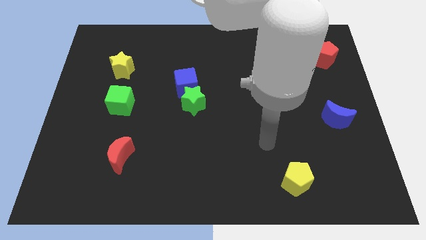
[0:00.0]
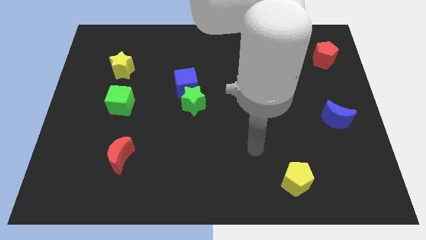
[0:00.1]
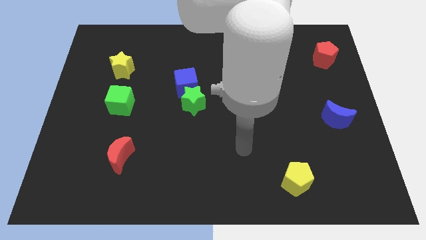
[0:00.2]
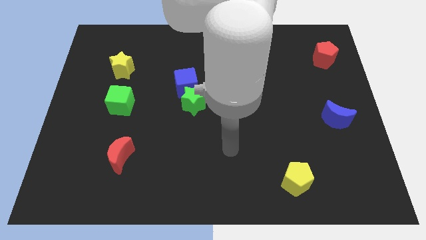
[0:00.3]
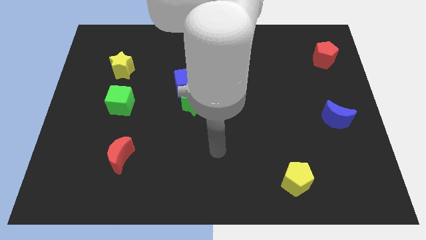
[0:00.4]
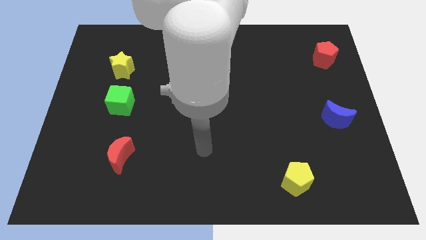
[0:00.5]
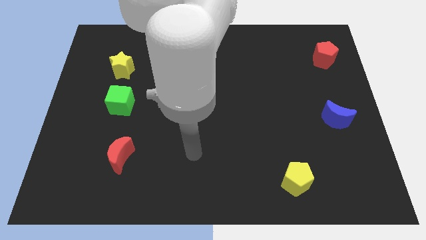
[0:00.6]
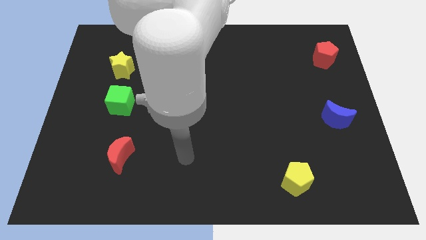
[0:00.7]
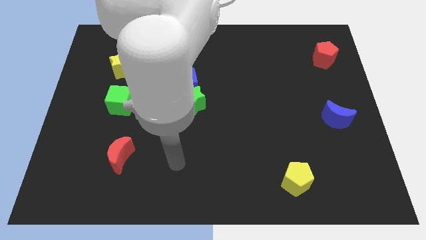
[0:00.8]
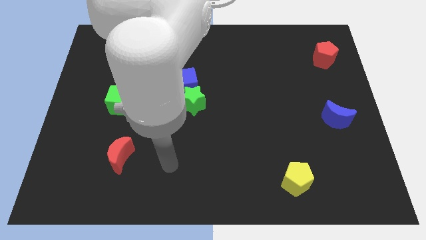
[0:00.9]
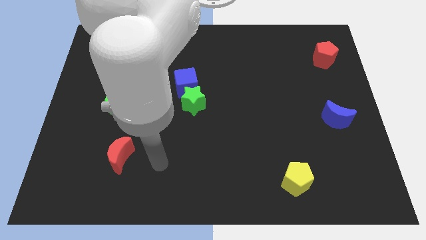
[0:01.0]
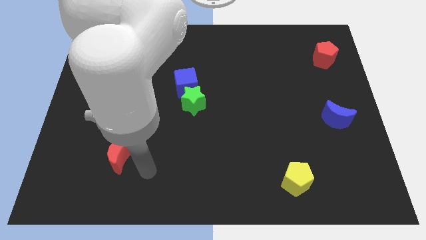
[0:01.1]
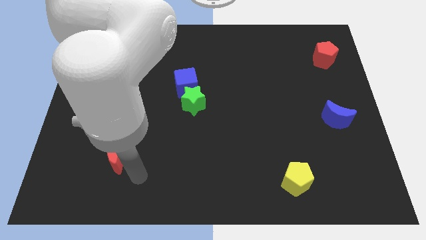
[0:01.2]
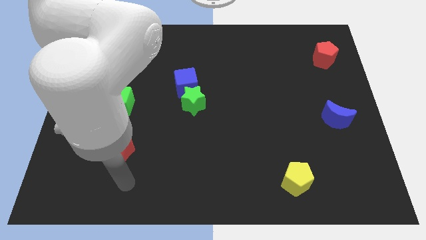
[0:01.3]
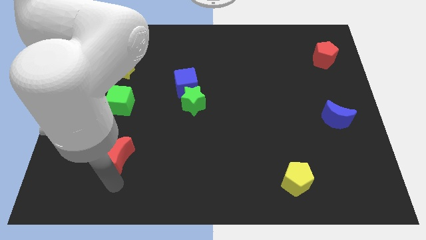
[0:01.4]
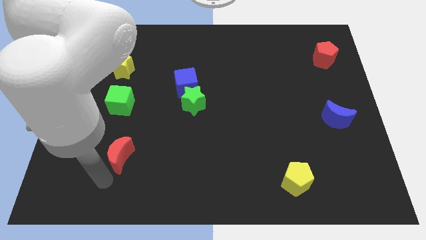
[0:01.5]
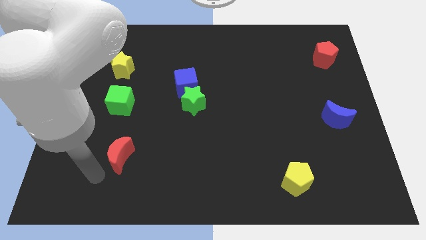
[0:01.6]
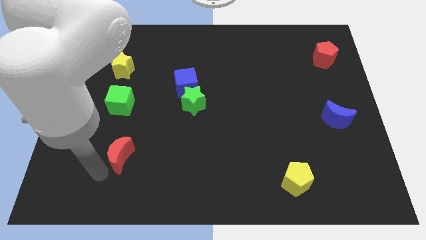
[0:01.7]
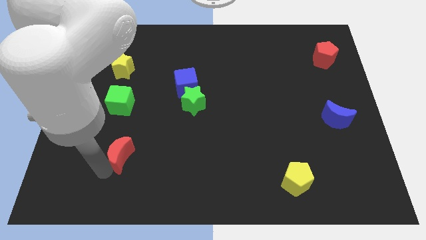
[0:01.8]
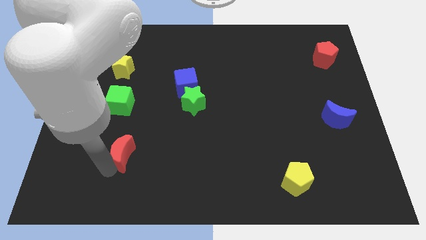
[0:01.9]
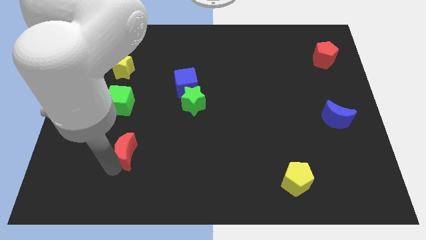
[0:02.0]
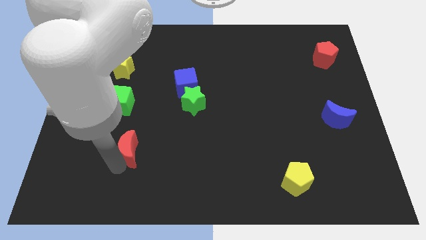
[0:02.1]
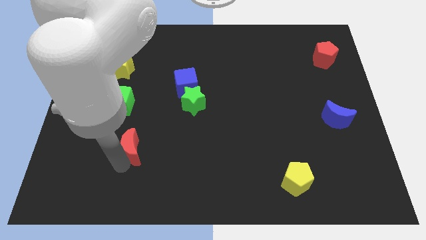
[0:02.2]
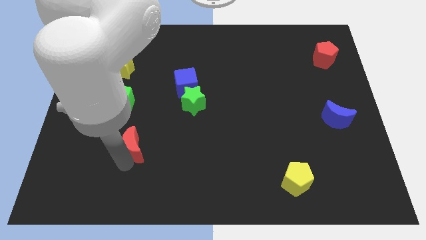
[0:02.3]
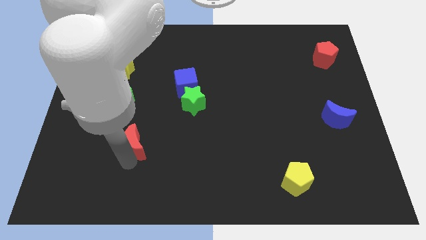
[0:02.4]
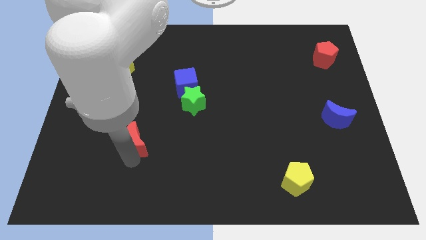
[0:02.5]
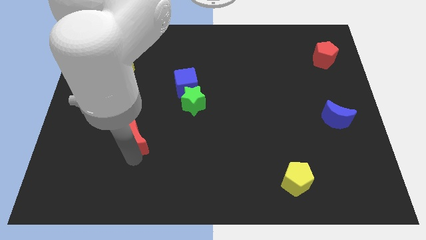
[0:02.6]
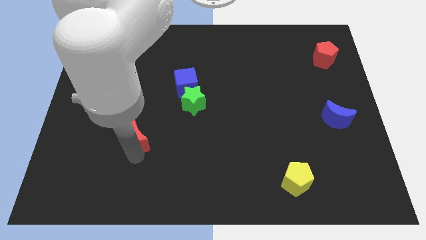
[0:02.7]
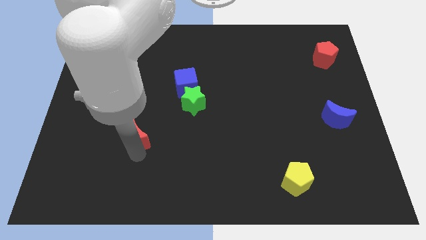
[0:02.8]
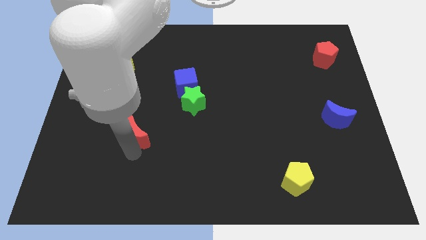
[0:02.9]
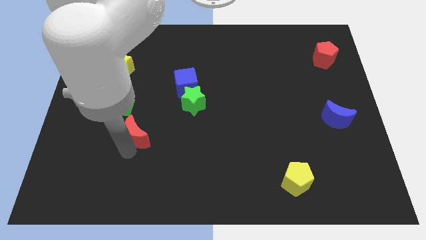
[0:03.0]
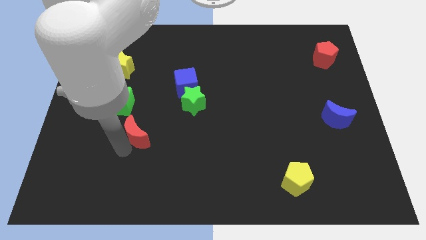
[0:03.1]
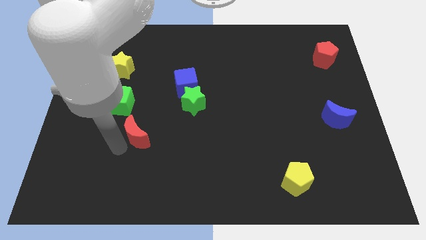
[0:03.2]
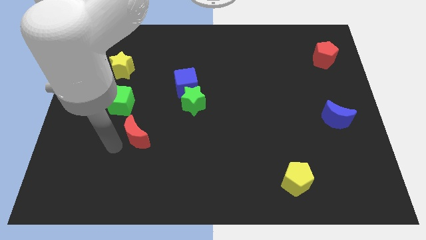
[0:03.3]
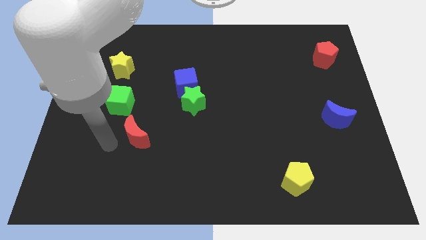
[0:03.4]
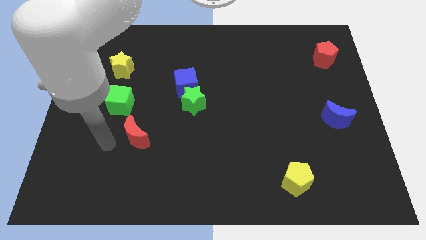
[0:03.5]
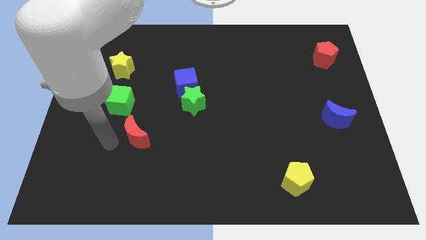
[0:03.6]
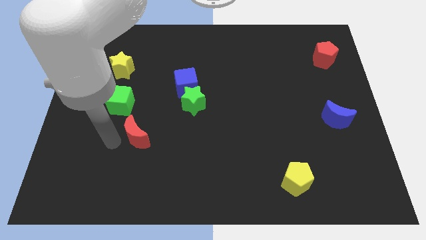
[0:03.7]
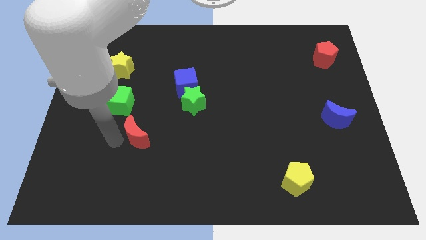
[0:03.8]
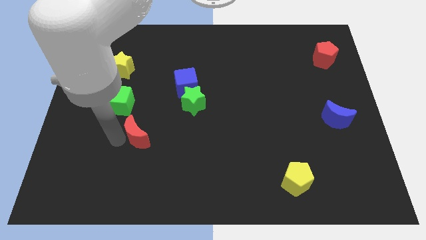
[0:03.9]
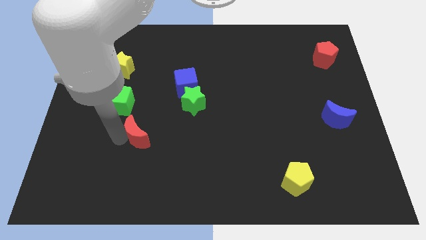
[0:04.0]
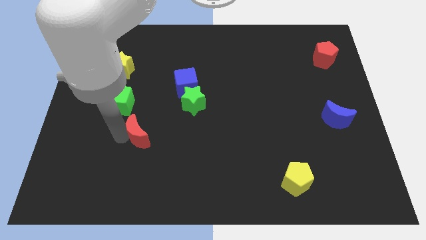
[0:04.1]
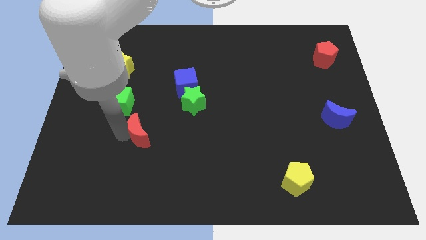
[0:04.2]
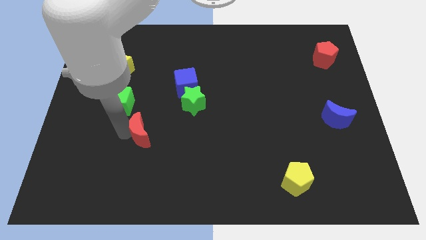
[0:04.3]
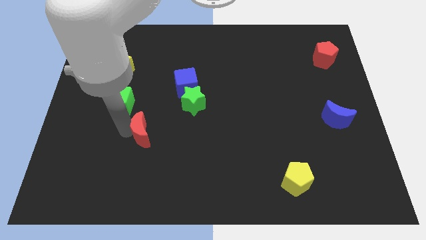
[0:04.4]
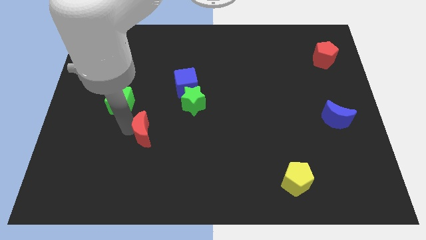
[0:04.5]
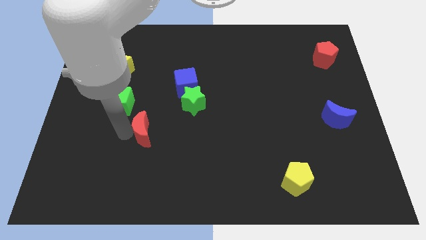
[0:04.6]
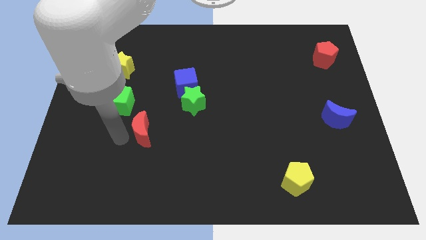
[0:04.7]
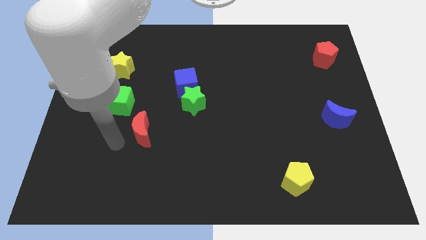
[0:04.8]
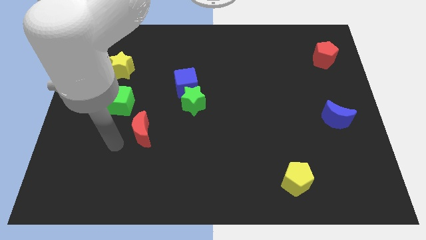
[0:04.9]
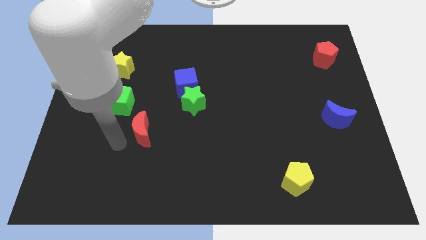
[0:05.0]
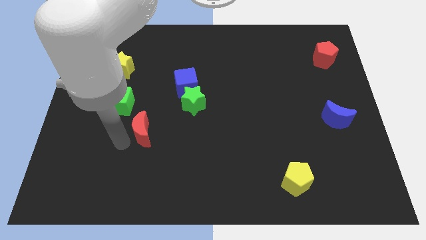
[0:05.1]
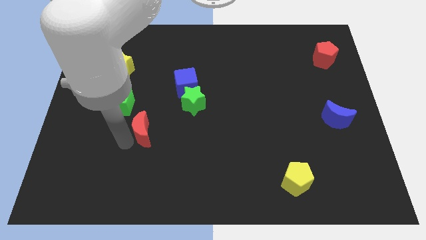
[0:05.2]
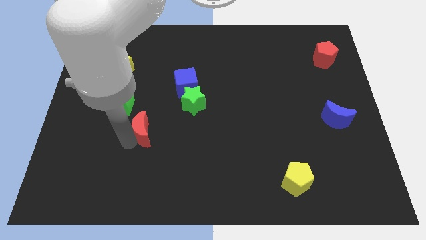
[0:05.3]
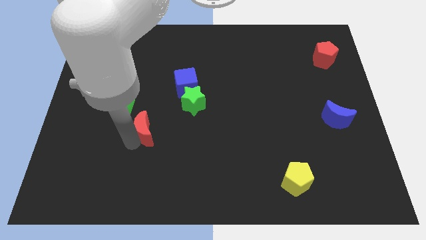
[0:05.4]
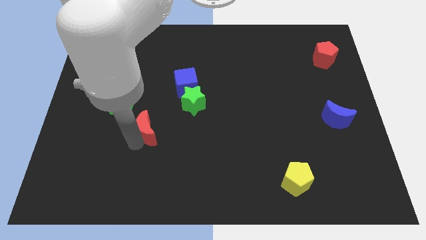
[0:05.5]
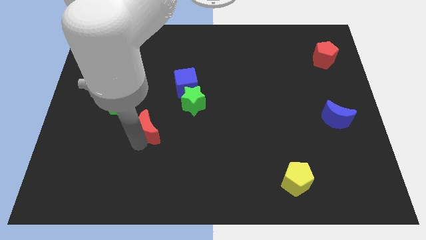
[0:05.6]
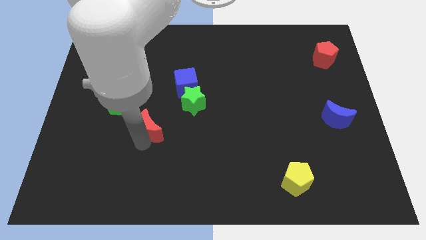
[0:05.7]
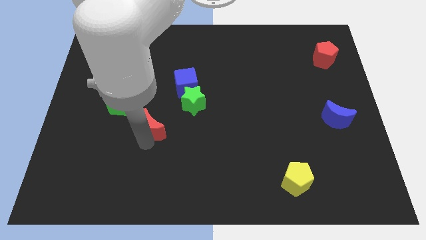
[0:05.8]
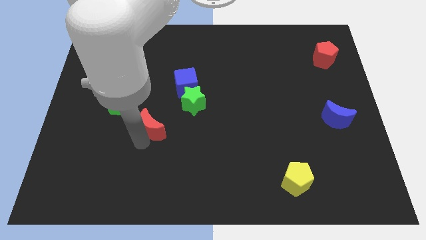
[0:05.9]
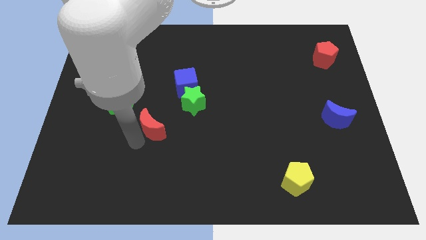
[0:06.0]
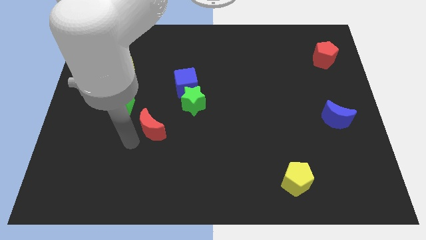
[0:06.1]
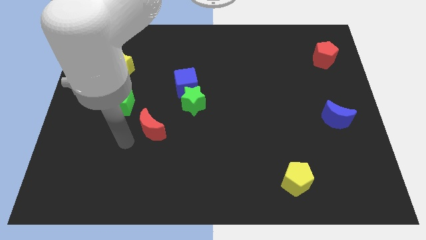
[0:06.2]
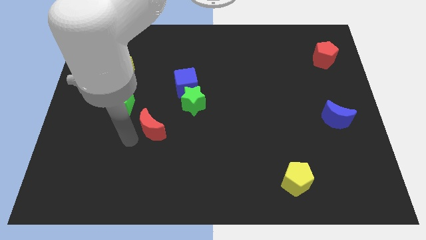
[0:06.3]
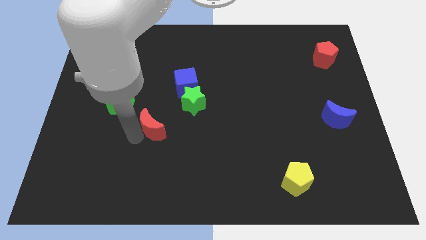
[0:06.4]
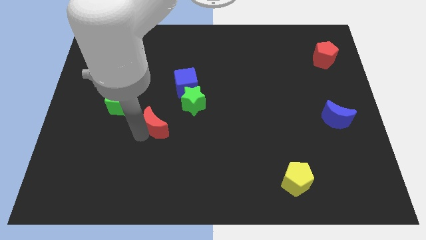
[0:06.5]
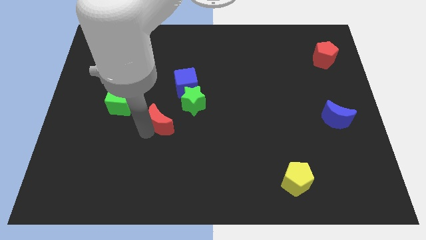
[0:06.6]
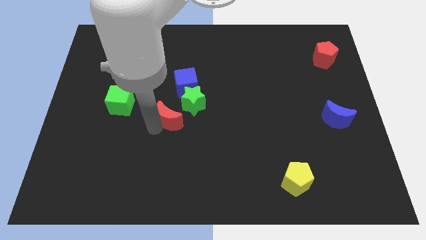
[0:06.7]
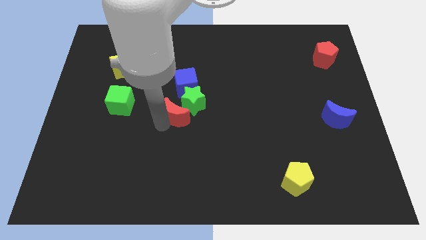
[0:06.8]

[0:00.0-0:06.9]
move the red moon to the green star
